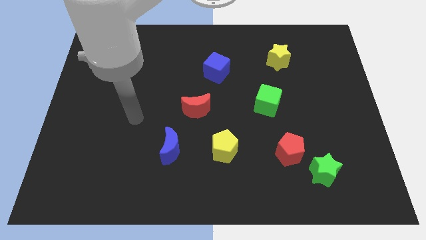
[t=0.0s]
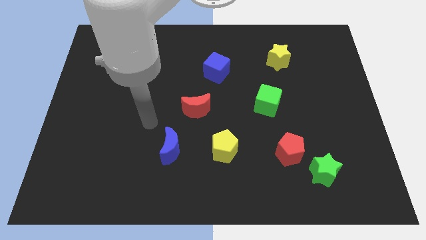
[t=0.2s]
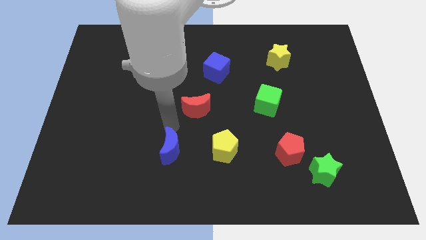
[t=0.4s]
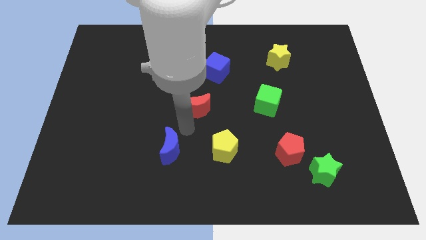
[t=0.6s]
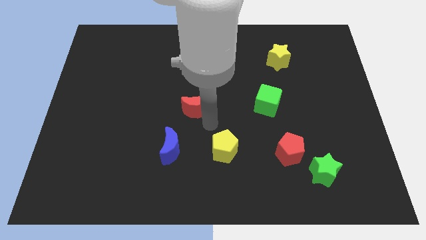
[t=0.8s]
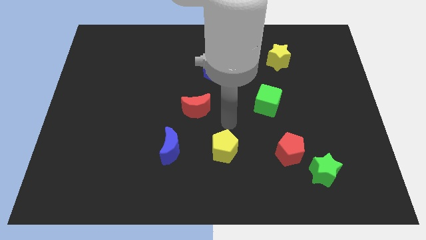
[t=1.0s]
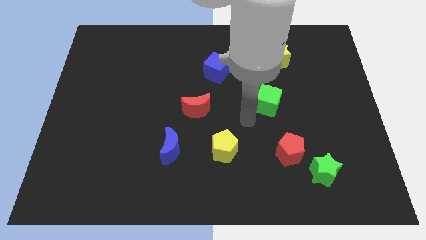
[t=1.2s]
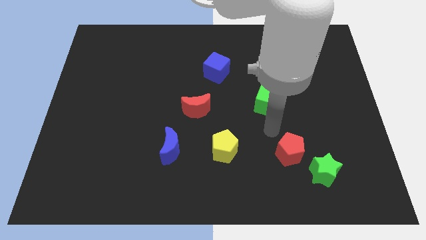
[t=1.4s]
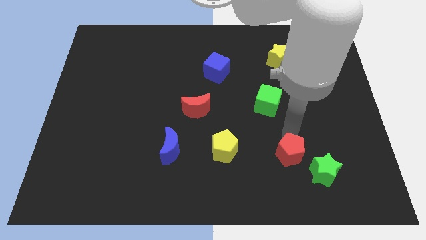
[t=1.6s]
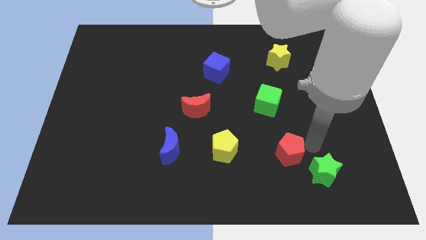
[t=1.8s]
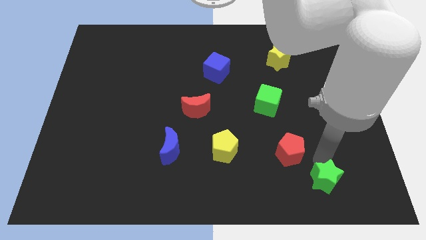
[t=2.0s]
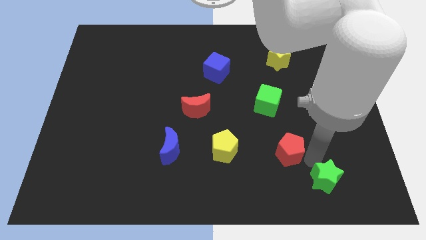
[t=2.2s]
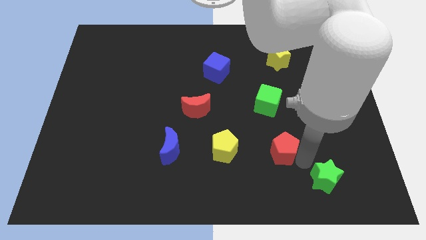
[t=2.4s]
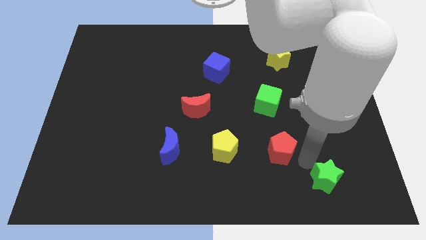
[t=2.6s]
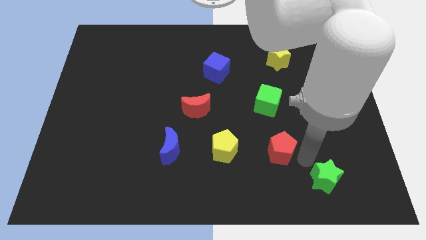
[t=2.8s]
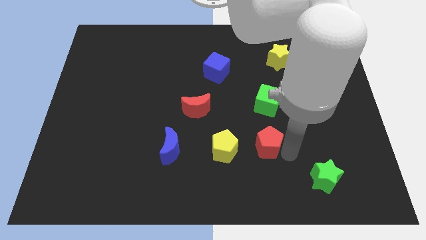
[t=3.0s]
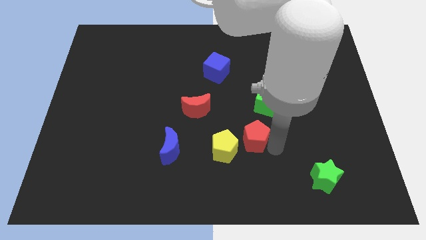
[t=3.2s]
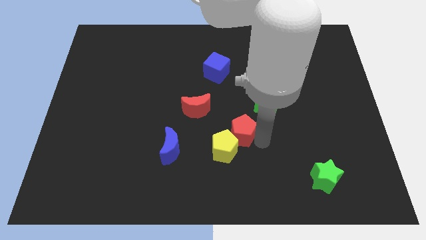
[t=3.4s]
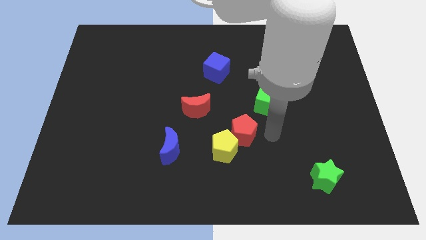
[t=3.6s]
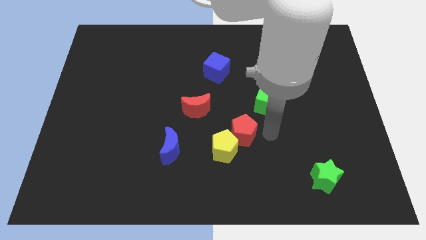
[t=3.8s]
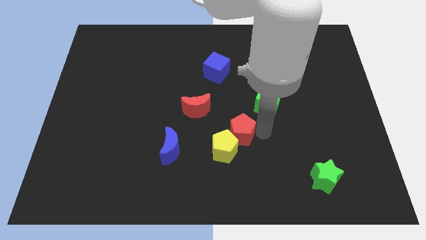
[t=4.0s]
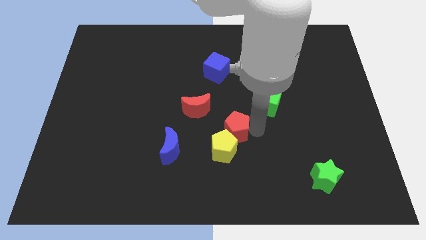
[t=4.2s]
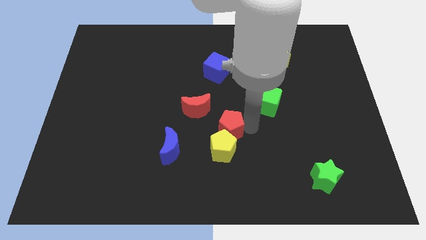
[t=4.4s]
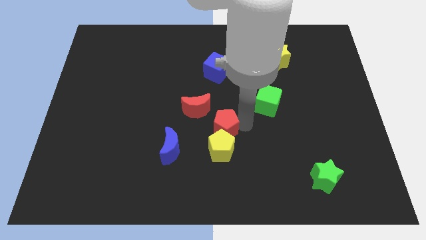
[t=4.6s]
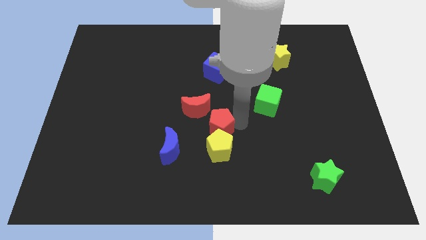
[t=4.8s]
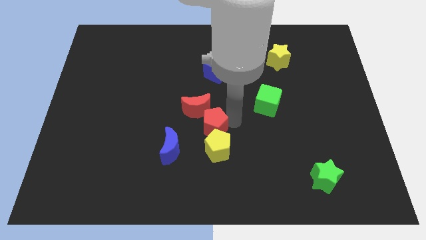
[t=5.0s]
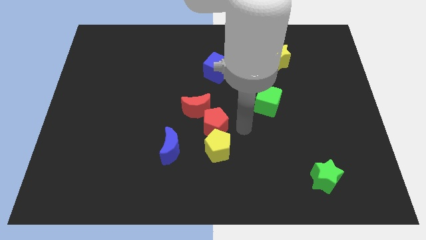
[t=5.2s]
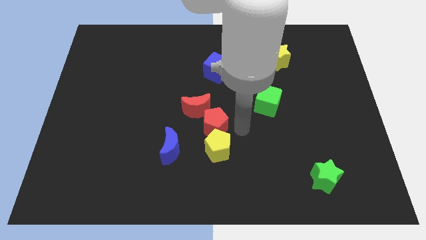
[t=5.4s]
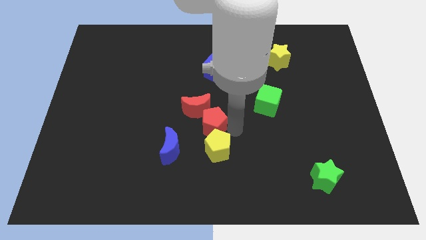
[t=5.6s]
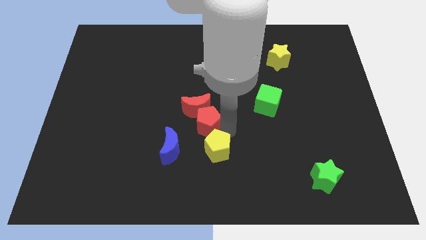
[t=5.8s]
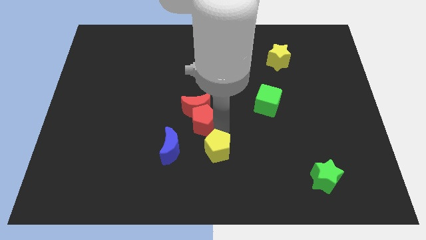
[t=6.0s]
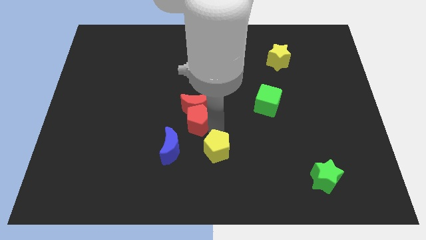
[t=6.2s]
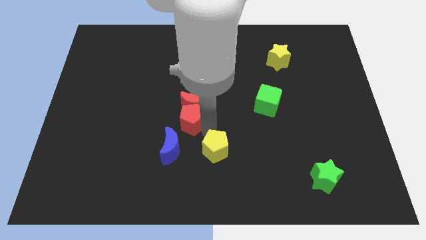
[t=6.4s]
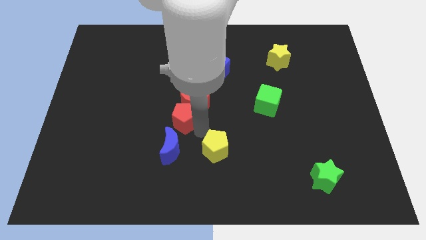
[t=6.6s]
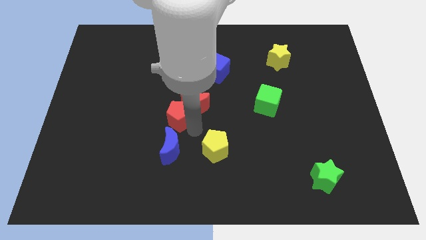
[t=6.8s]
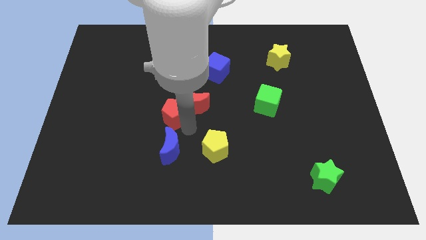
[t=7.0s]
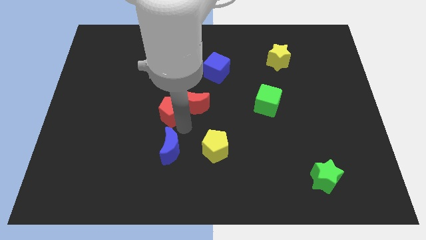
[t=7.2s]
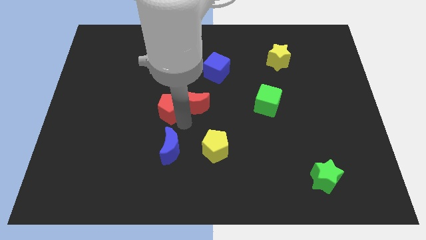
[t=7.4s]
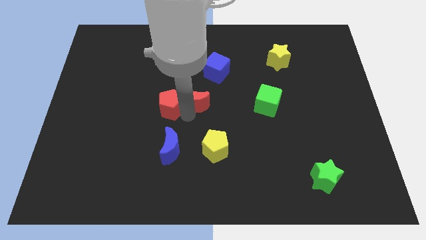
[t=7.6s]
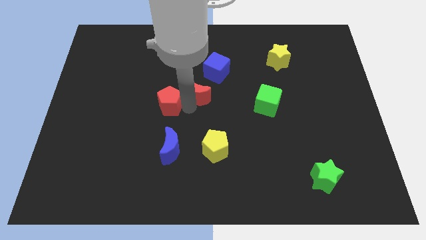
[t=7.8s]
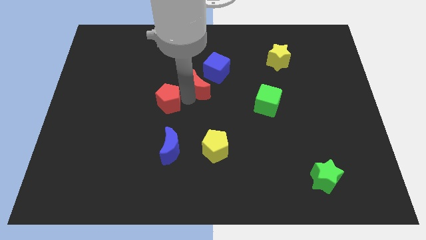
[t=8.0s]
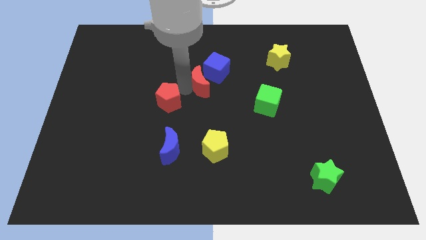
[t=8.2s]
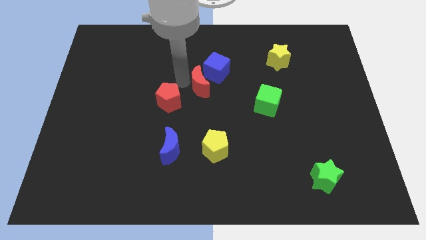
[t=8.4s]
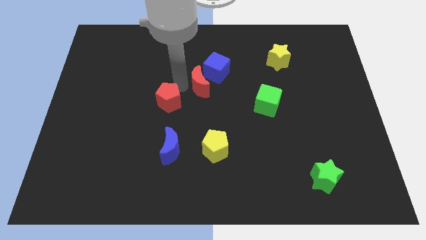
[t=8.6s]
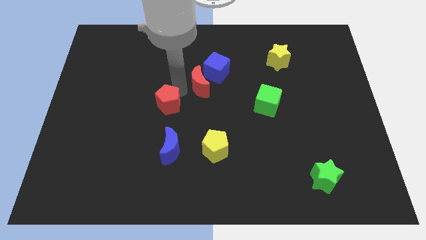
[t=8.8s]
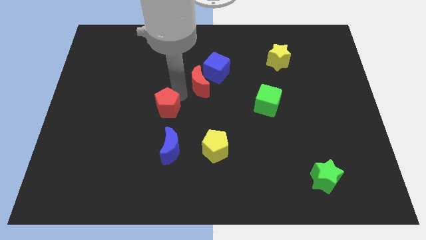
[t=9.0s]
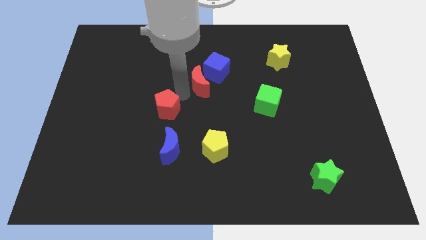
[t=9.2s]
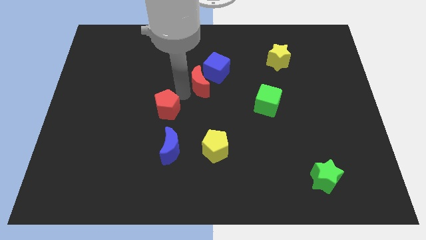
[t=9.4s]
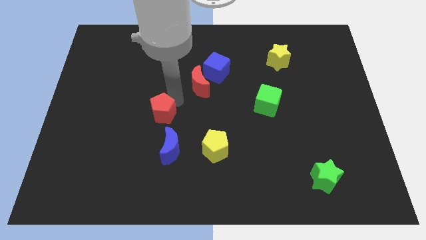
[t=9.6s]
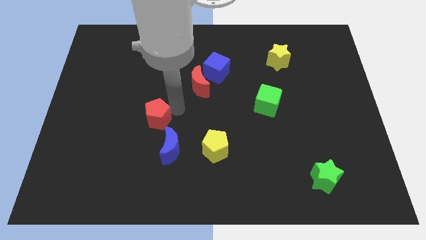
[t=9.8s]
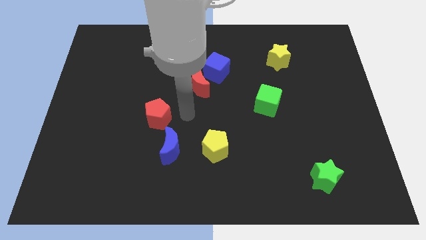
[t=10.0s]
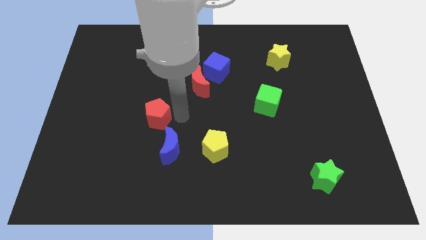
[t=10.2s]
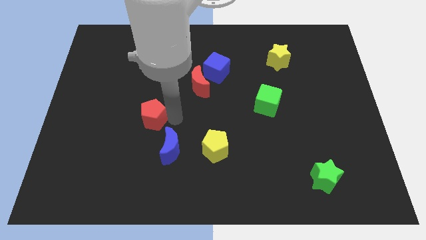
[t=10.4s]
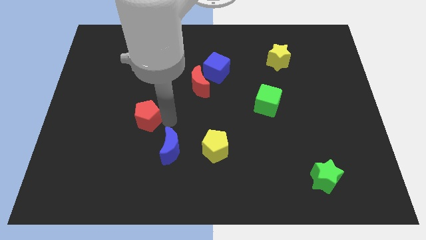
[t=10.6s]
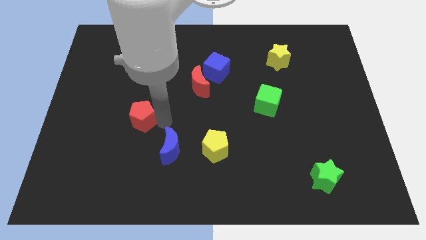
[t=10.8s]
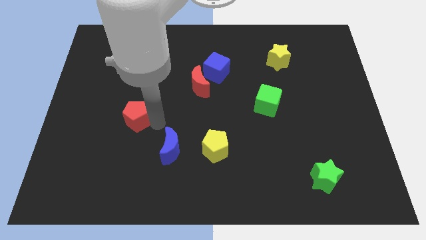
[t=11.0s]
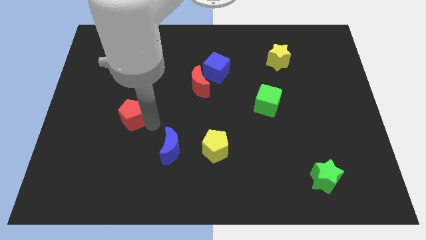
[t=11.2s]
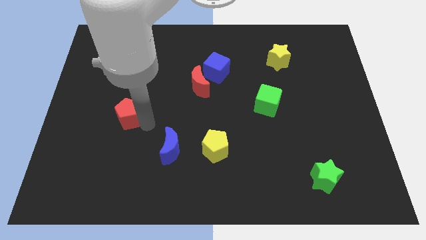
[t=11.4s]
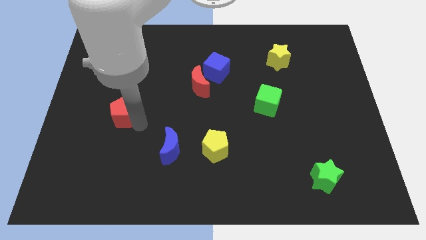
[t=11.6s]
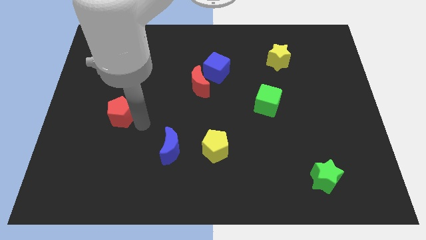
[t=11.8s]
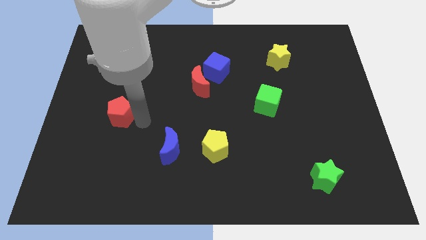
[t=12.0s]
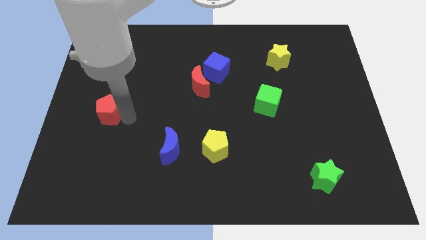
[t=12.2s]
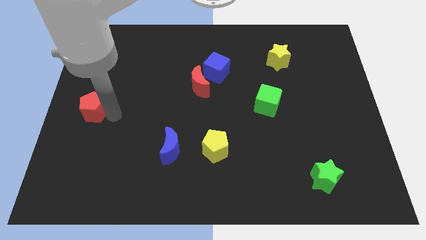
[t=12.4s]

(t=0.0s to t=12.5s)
put the red pentagon to the left side

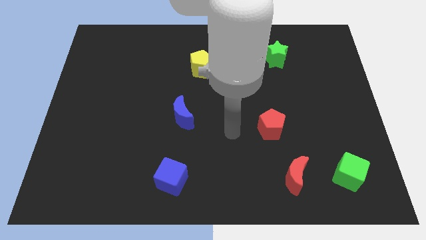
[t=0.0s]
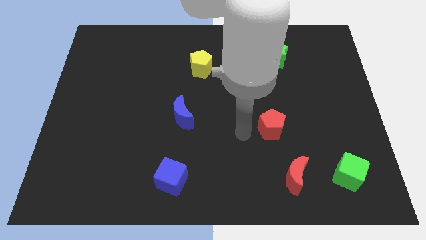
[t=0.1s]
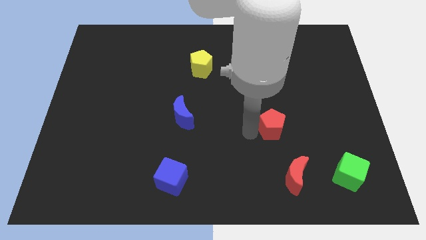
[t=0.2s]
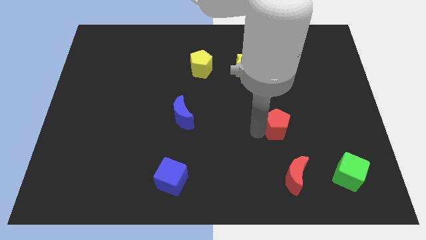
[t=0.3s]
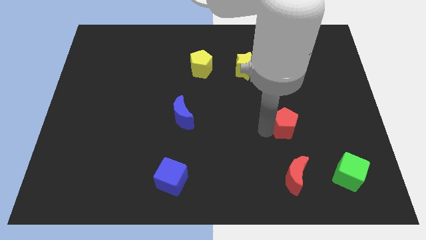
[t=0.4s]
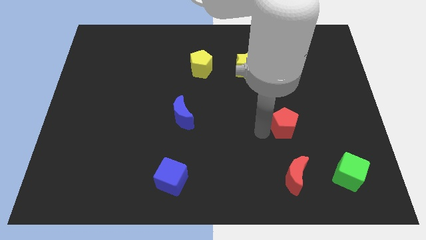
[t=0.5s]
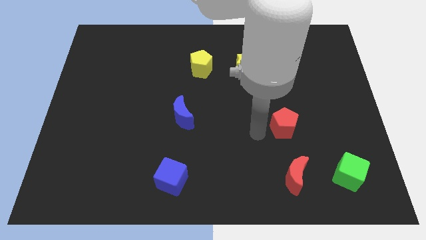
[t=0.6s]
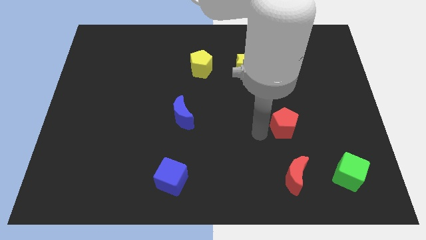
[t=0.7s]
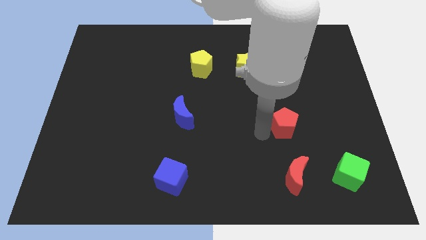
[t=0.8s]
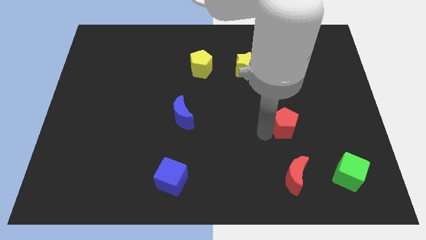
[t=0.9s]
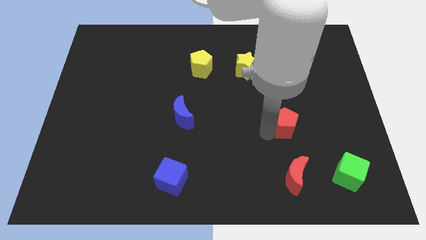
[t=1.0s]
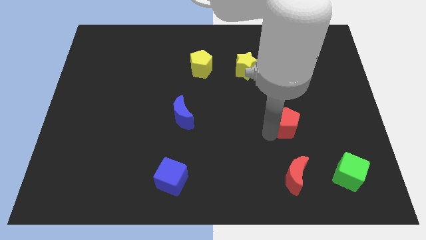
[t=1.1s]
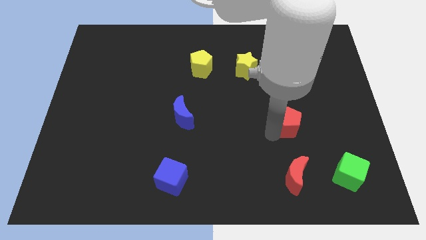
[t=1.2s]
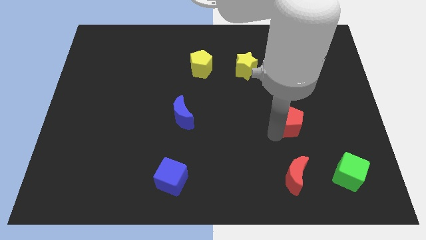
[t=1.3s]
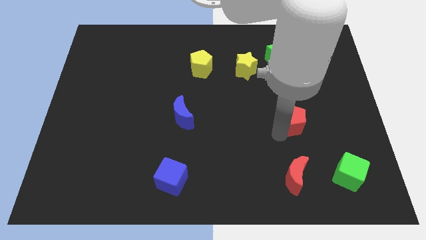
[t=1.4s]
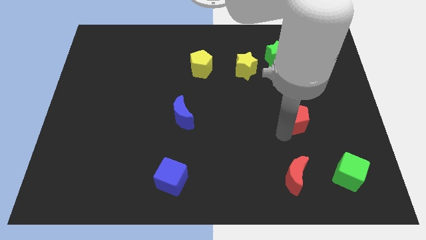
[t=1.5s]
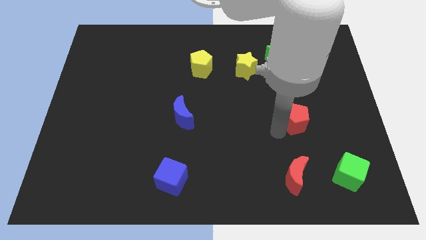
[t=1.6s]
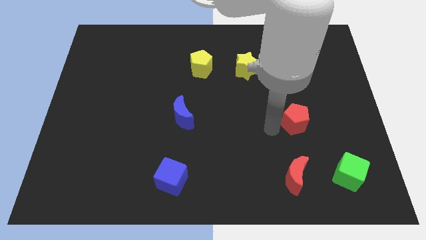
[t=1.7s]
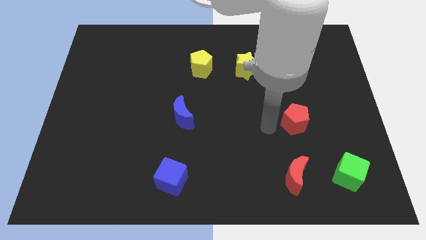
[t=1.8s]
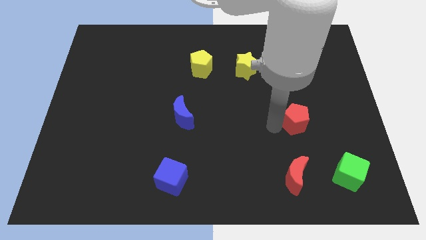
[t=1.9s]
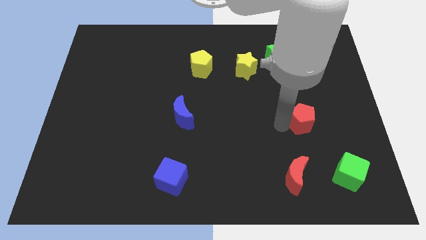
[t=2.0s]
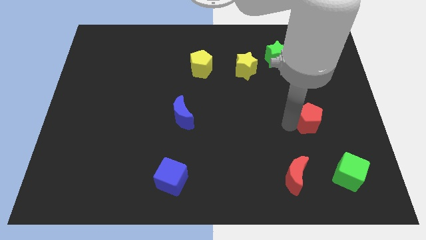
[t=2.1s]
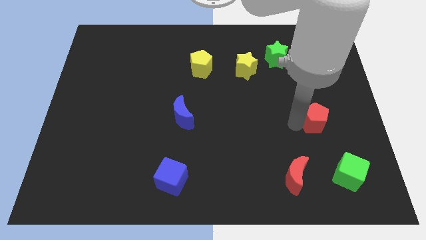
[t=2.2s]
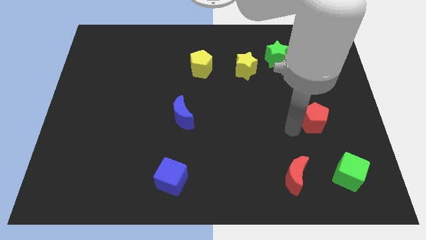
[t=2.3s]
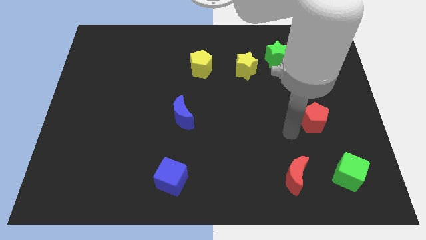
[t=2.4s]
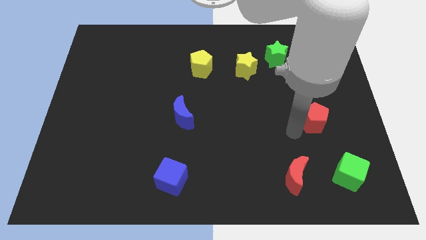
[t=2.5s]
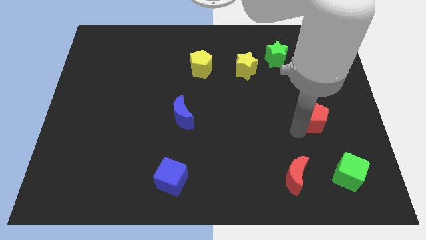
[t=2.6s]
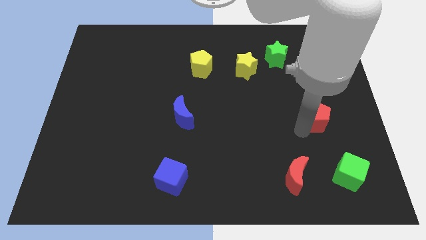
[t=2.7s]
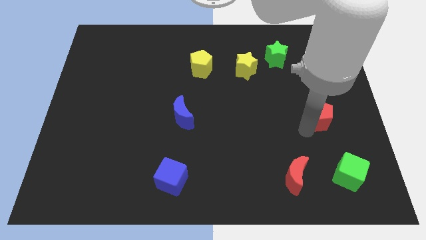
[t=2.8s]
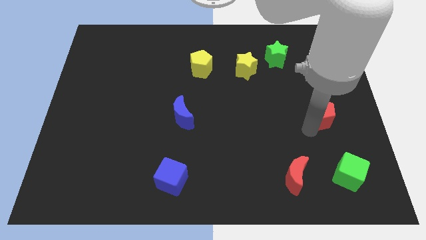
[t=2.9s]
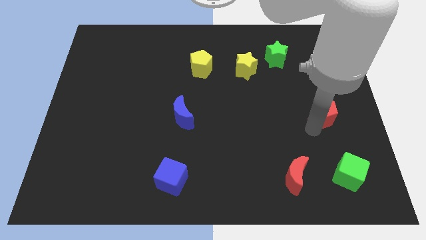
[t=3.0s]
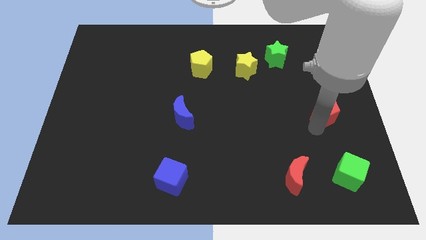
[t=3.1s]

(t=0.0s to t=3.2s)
put the red pentagon to the right side of the board
